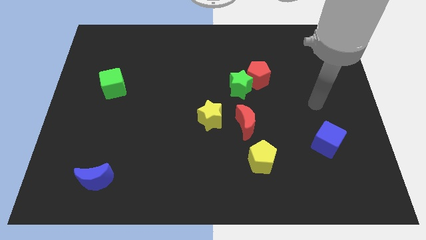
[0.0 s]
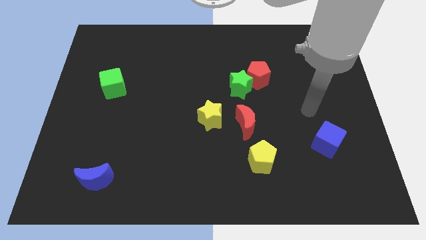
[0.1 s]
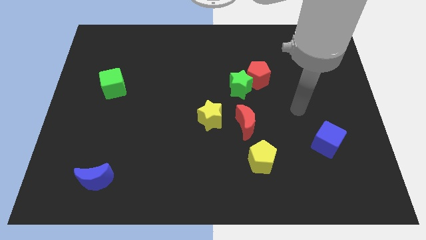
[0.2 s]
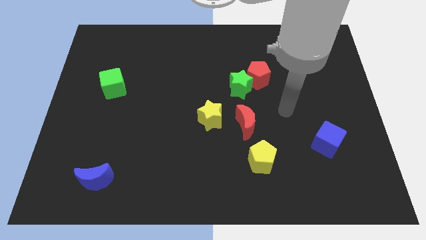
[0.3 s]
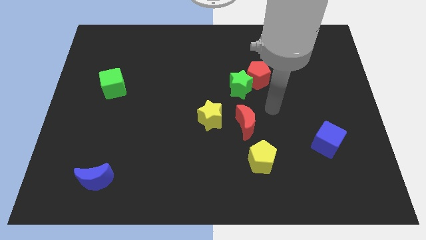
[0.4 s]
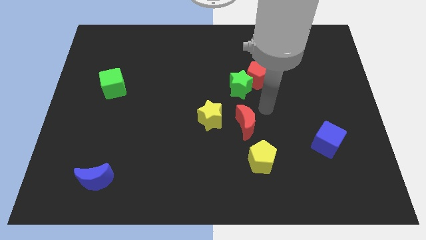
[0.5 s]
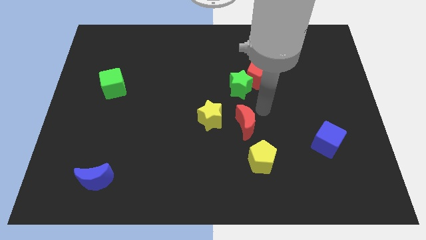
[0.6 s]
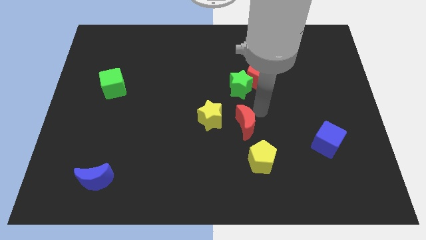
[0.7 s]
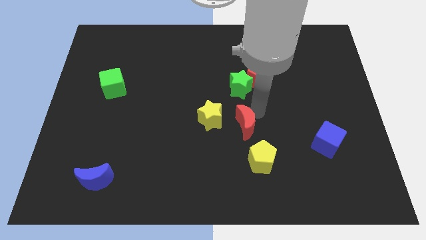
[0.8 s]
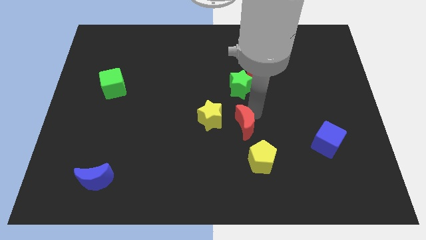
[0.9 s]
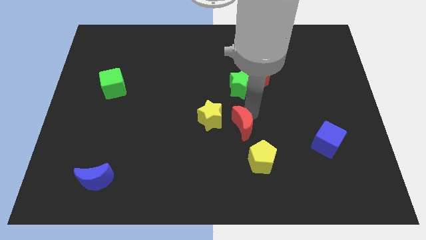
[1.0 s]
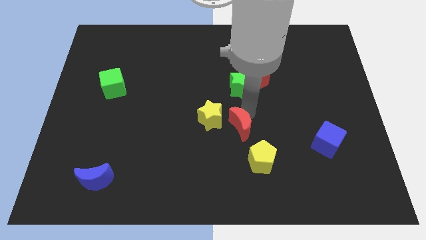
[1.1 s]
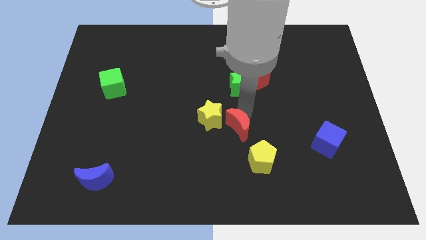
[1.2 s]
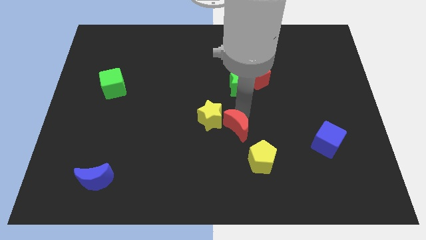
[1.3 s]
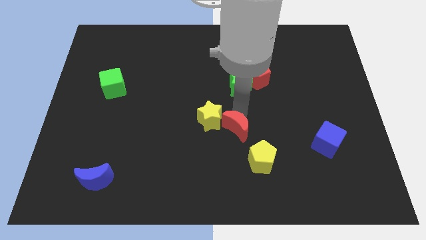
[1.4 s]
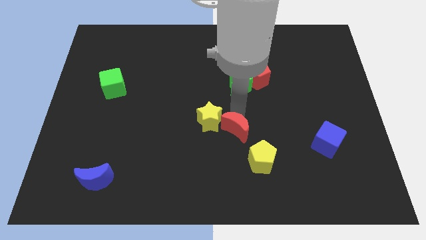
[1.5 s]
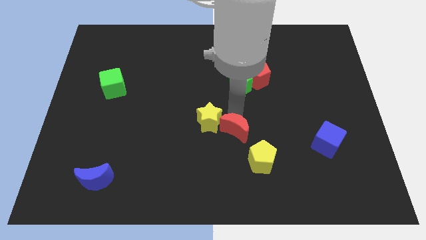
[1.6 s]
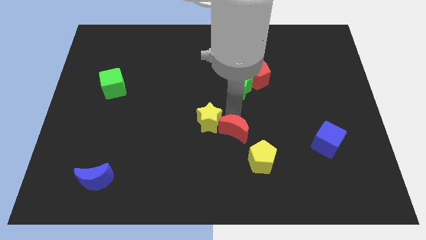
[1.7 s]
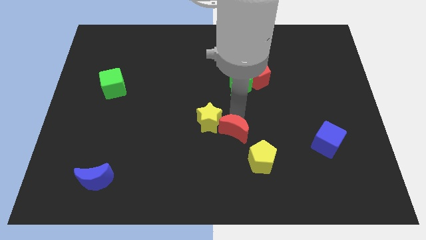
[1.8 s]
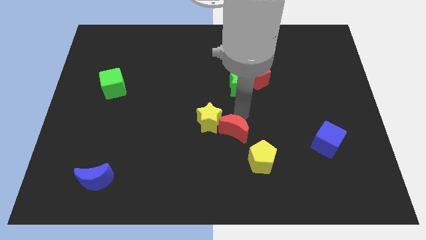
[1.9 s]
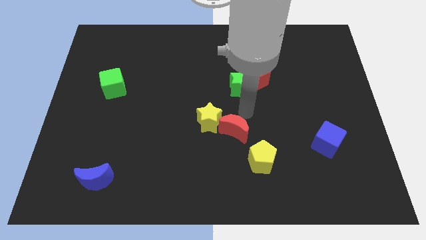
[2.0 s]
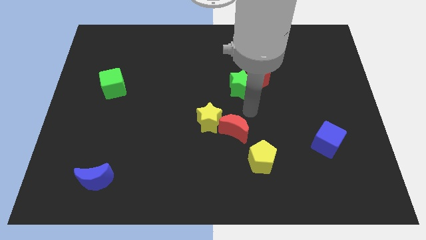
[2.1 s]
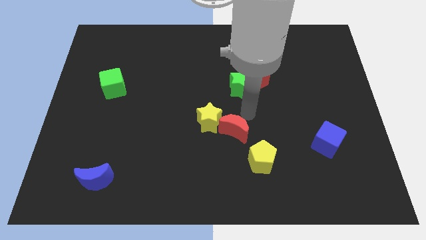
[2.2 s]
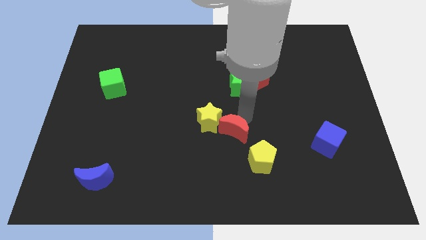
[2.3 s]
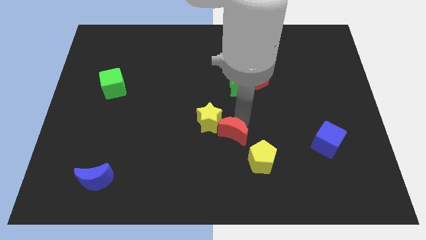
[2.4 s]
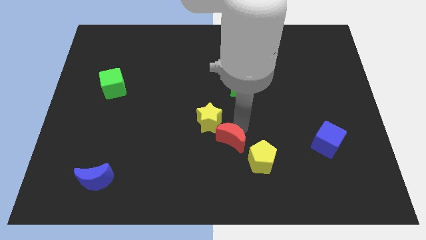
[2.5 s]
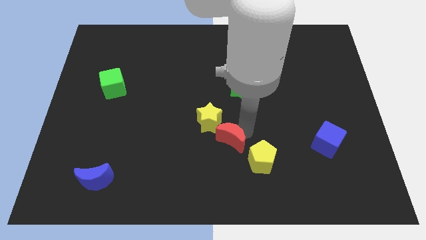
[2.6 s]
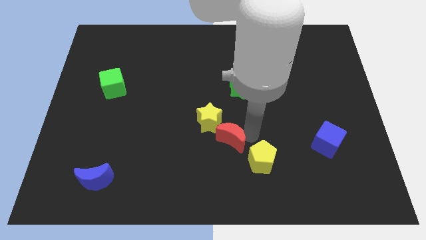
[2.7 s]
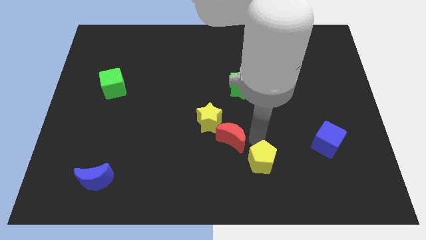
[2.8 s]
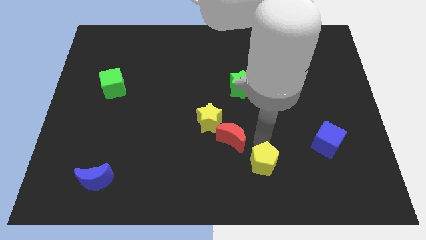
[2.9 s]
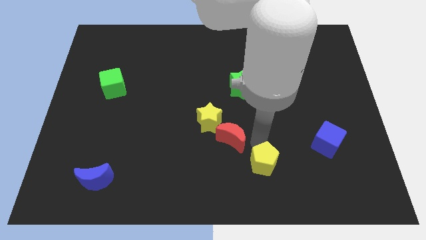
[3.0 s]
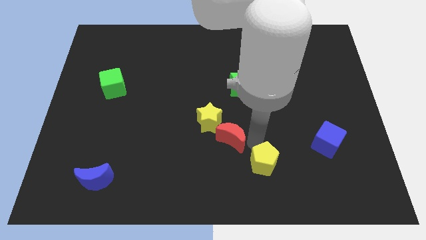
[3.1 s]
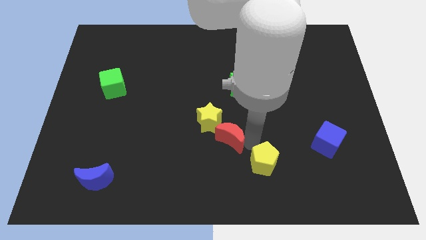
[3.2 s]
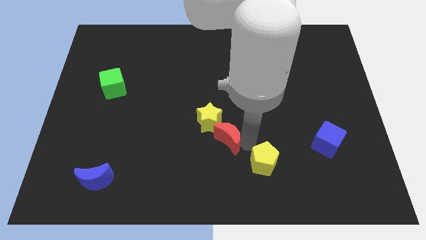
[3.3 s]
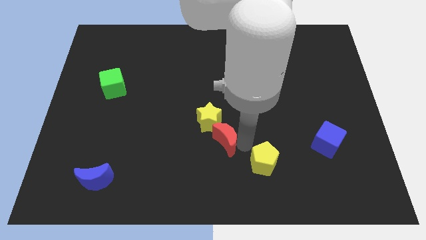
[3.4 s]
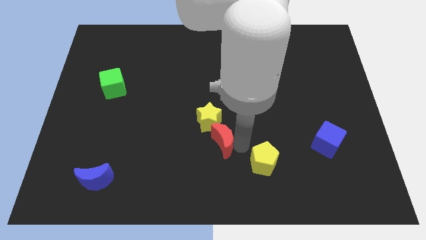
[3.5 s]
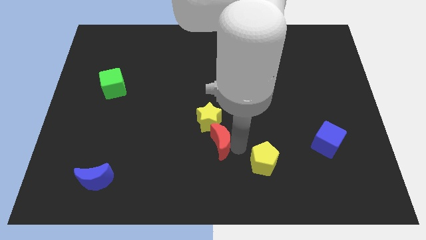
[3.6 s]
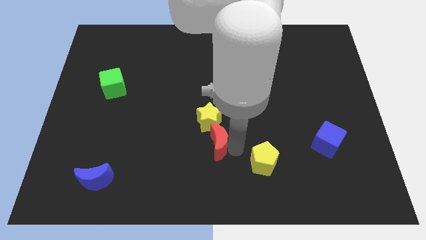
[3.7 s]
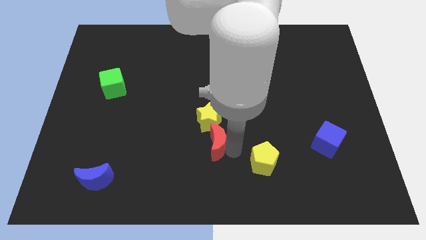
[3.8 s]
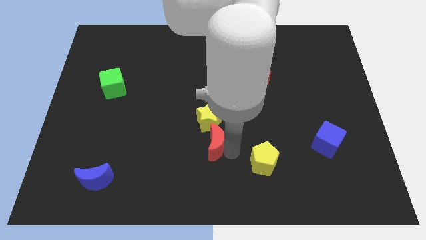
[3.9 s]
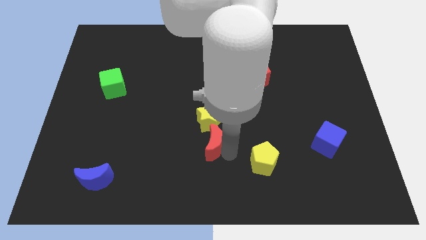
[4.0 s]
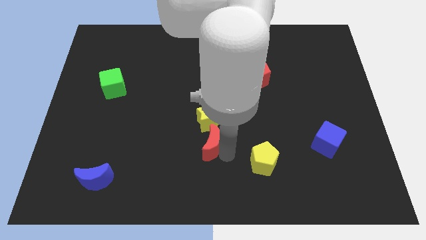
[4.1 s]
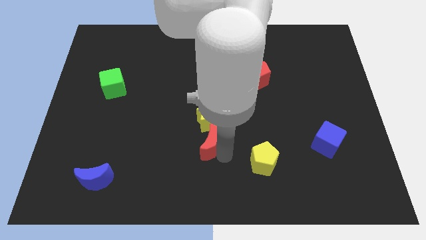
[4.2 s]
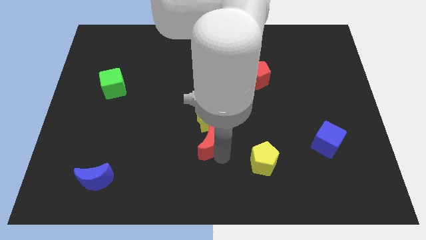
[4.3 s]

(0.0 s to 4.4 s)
push the red moon a little bit left

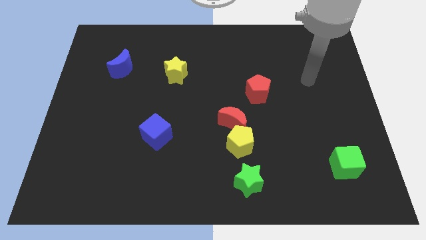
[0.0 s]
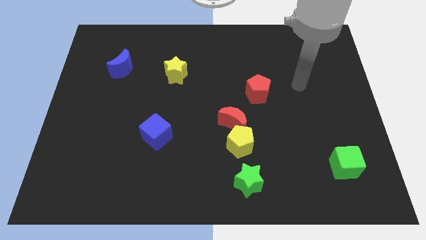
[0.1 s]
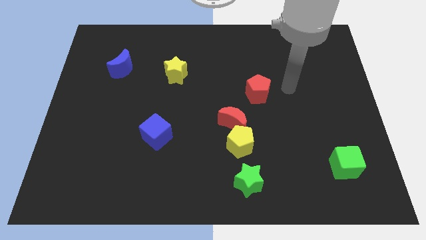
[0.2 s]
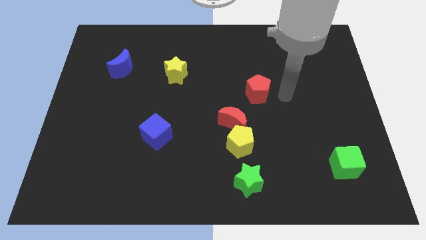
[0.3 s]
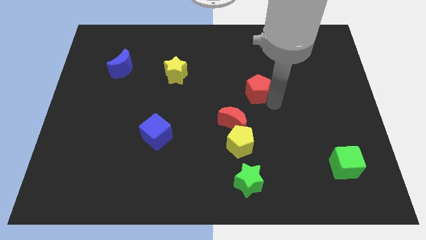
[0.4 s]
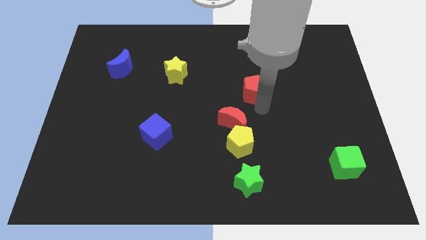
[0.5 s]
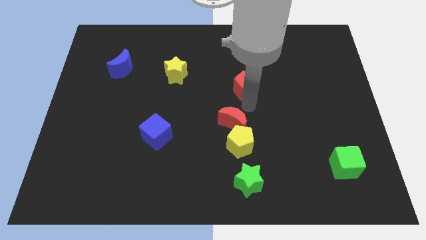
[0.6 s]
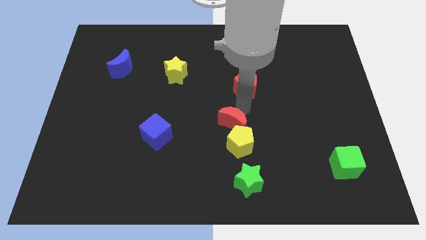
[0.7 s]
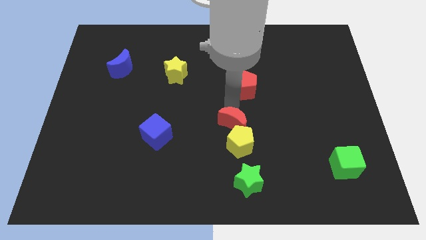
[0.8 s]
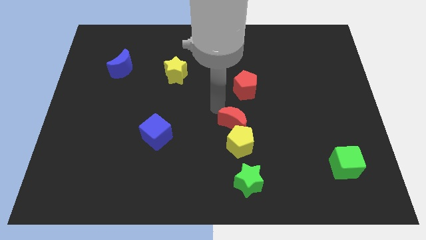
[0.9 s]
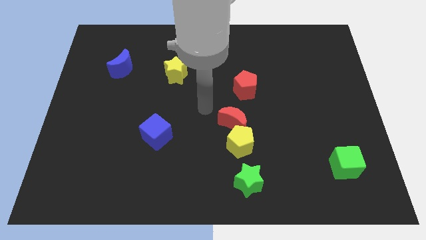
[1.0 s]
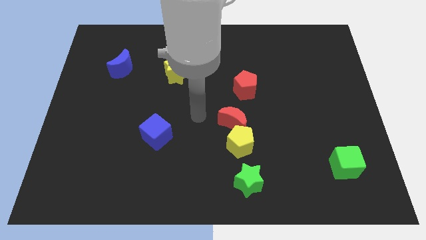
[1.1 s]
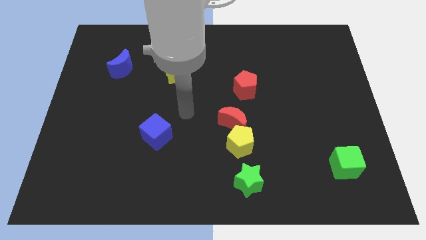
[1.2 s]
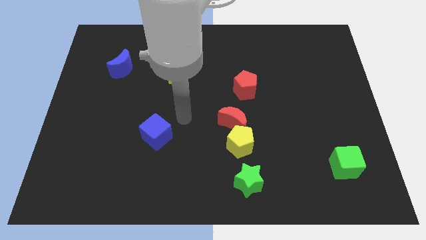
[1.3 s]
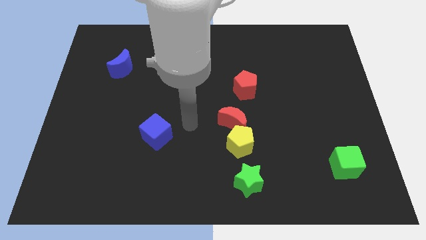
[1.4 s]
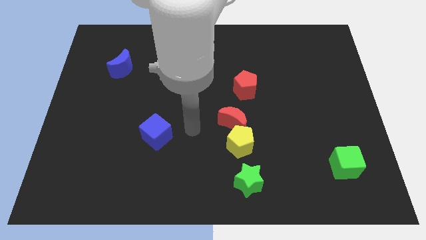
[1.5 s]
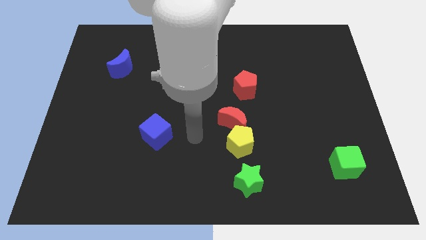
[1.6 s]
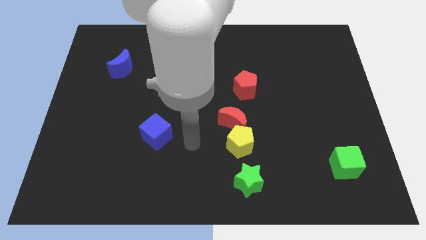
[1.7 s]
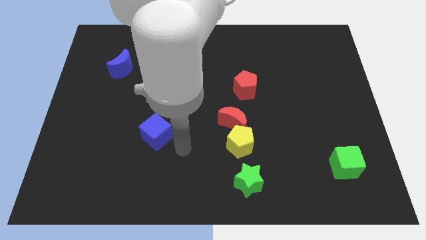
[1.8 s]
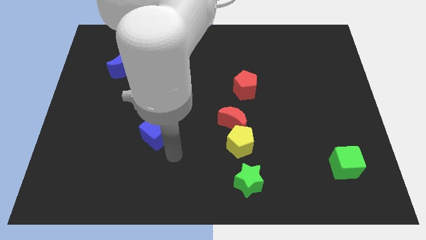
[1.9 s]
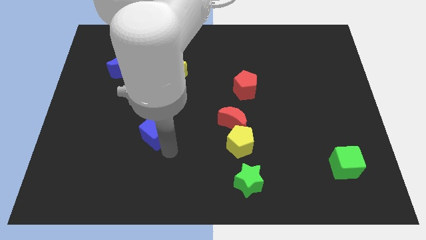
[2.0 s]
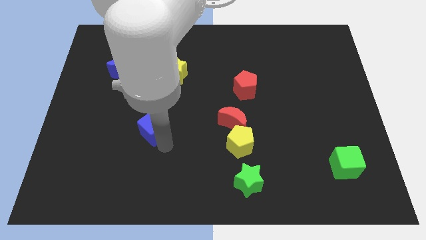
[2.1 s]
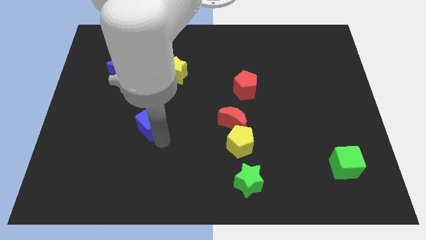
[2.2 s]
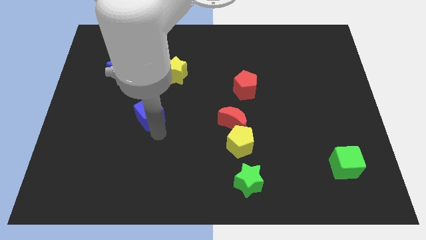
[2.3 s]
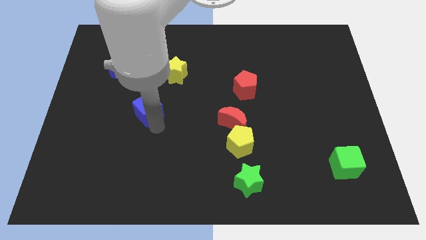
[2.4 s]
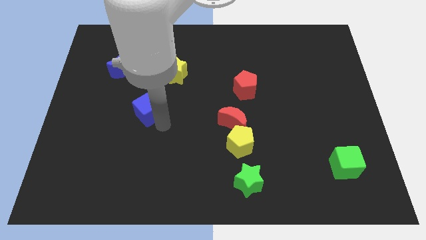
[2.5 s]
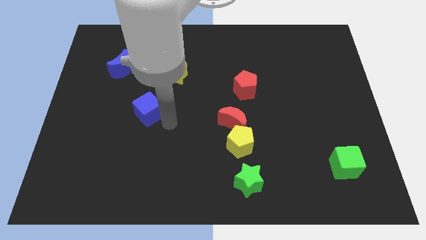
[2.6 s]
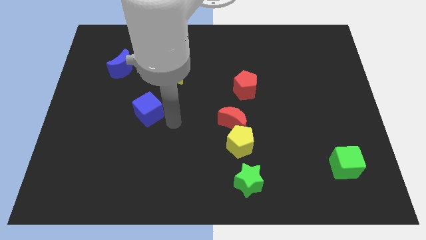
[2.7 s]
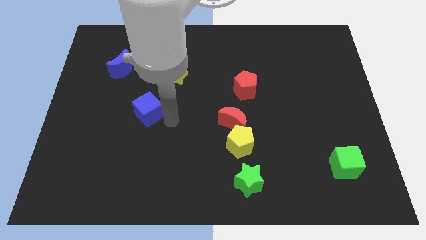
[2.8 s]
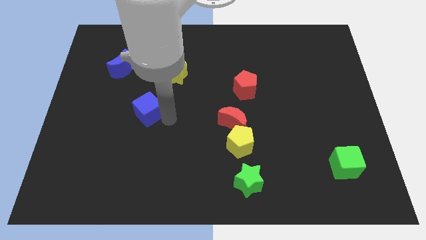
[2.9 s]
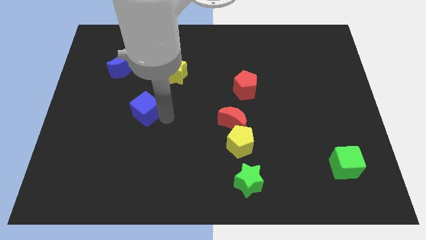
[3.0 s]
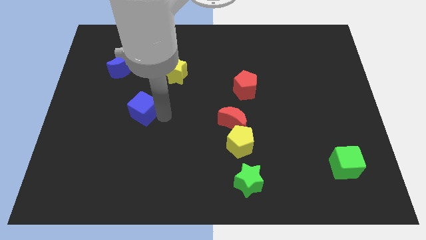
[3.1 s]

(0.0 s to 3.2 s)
slightly slide the blue cube upwards and to the left diagonally

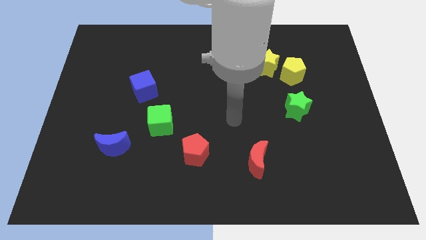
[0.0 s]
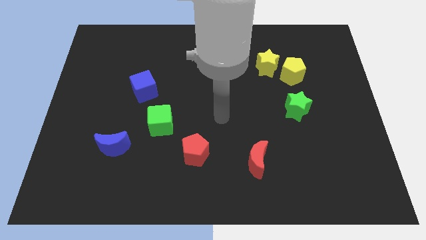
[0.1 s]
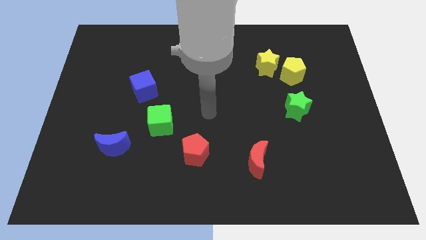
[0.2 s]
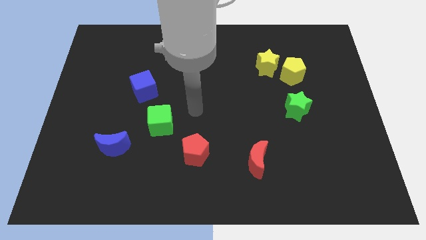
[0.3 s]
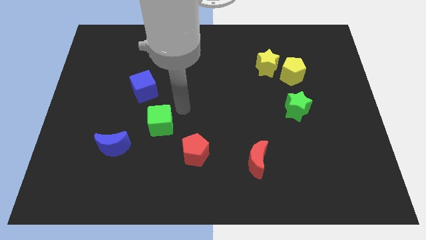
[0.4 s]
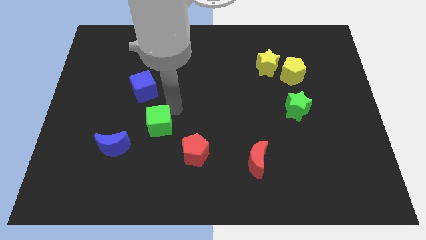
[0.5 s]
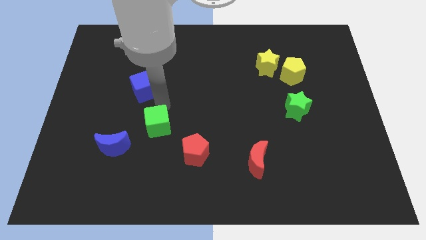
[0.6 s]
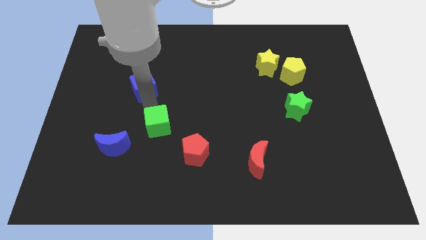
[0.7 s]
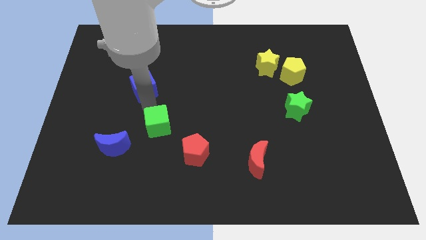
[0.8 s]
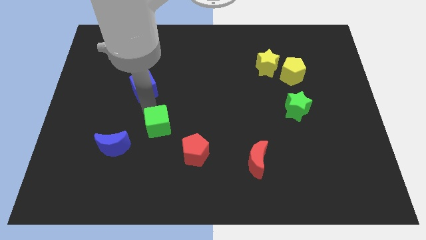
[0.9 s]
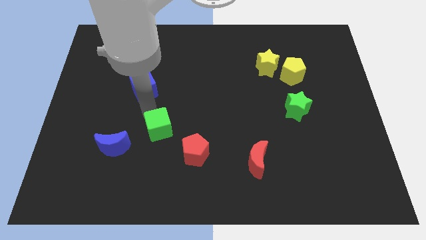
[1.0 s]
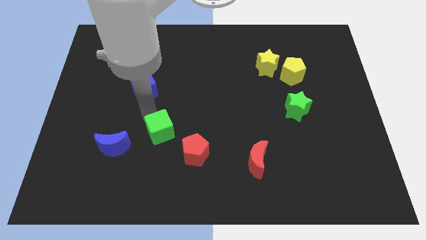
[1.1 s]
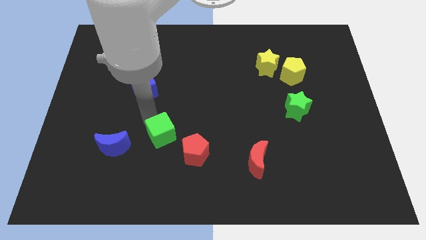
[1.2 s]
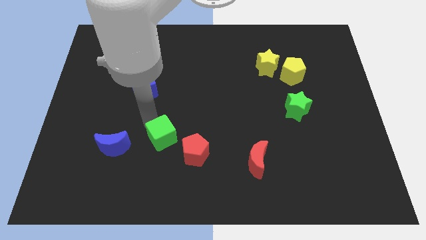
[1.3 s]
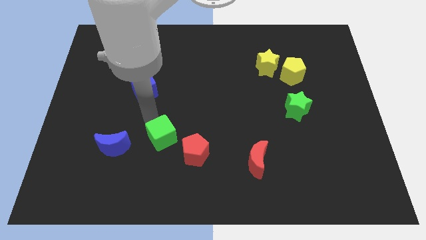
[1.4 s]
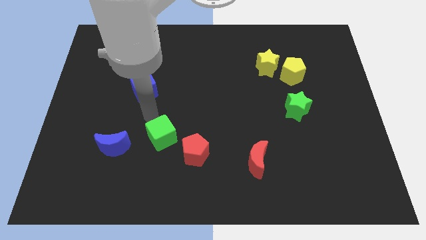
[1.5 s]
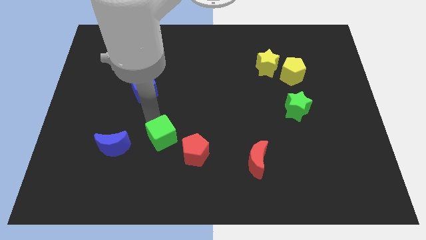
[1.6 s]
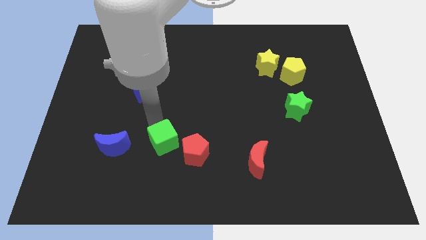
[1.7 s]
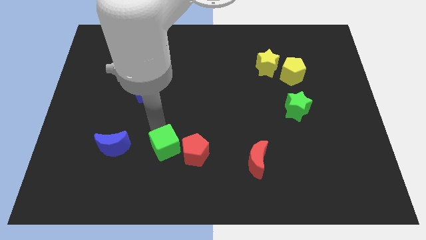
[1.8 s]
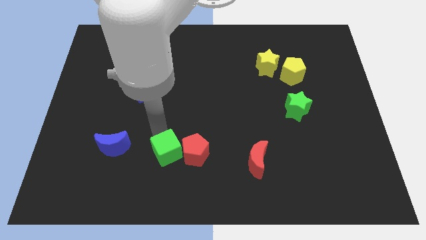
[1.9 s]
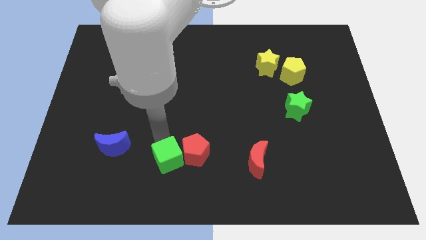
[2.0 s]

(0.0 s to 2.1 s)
slightly push the green cube downwards and to the right diagonally
